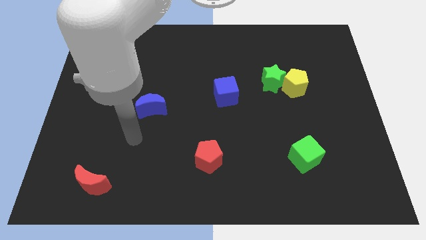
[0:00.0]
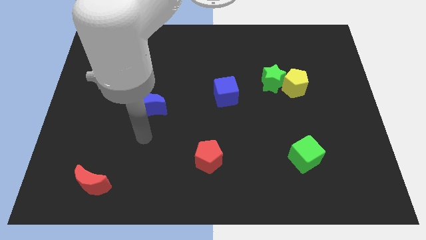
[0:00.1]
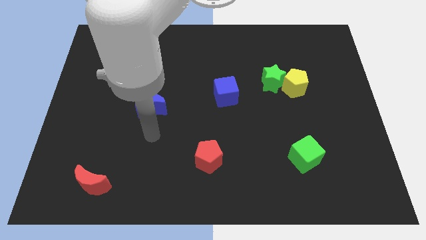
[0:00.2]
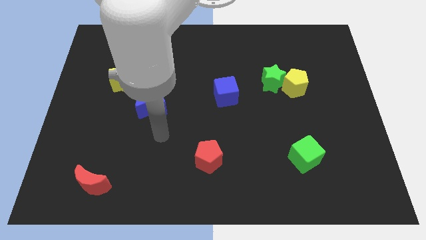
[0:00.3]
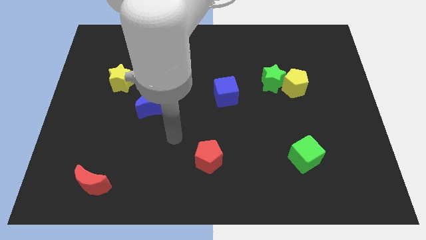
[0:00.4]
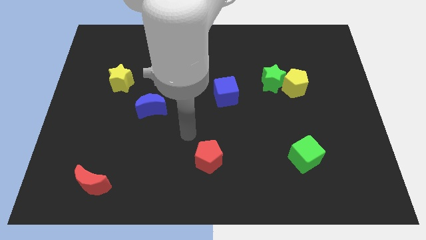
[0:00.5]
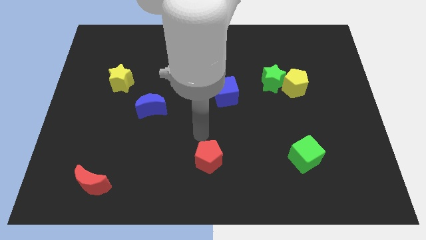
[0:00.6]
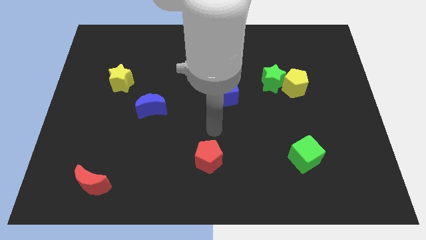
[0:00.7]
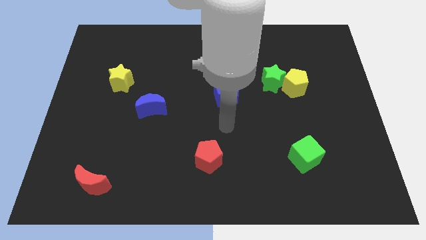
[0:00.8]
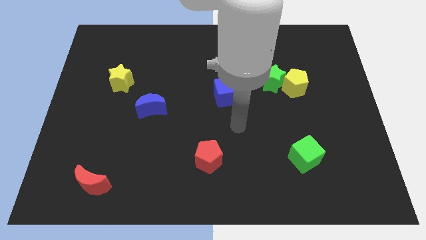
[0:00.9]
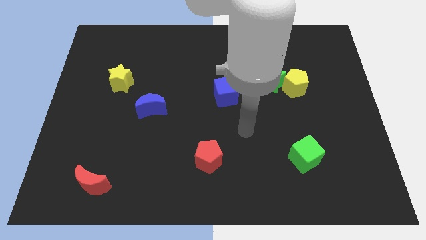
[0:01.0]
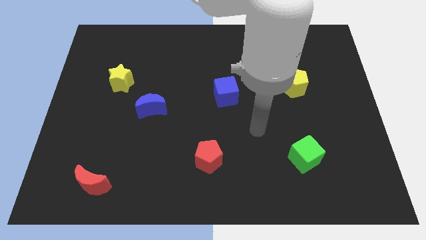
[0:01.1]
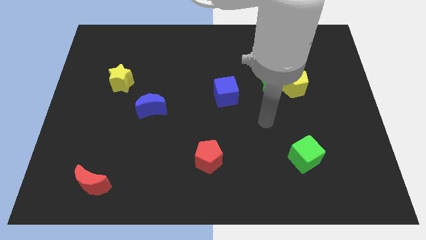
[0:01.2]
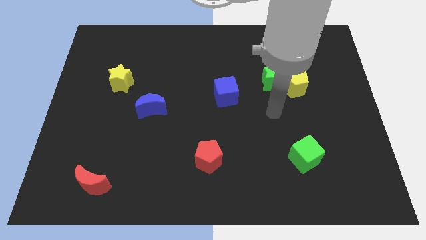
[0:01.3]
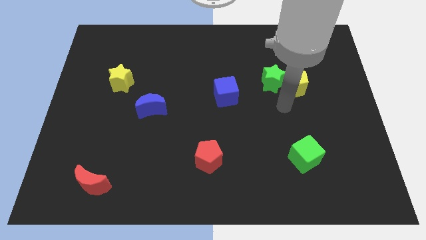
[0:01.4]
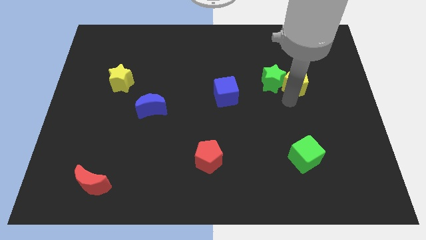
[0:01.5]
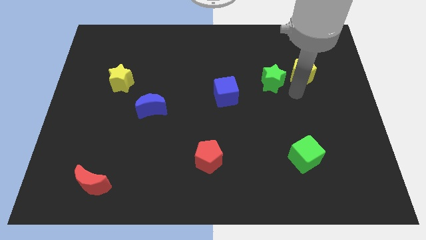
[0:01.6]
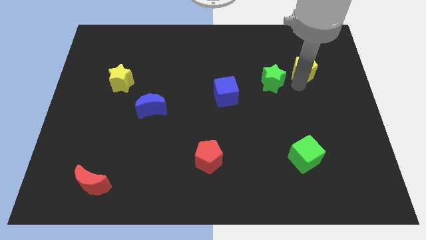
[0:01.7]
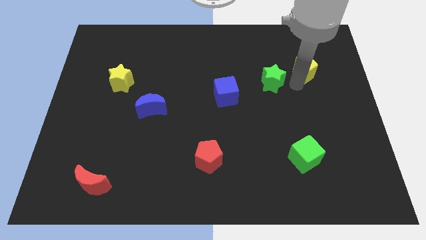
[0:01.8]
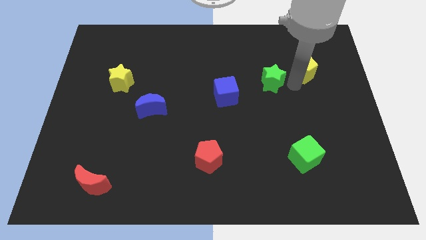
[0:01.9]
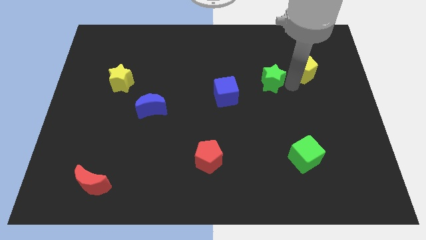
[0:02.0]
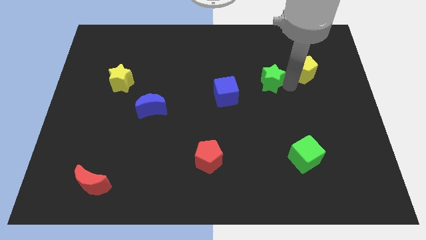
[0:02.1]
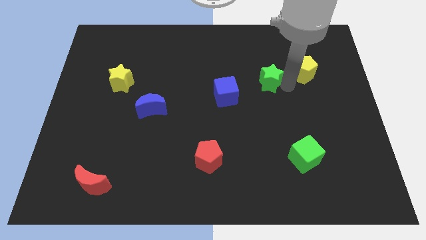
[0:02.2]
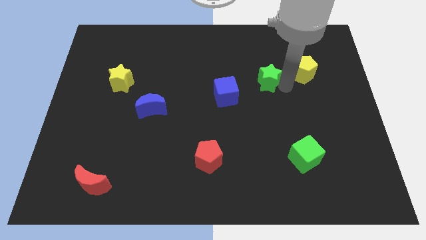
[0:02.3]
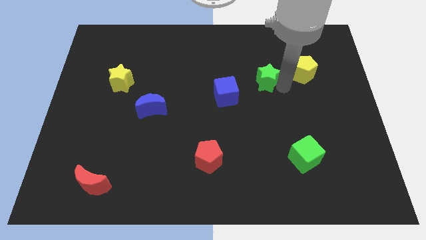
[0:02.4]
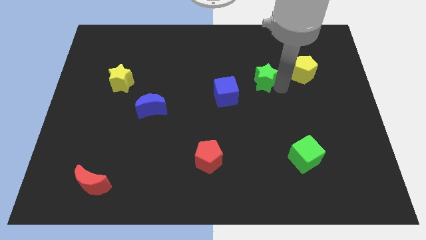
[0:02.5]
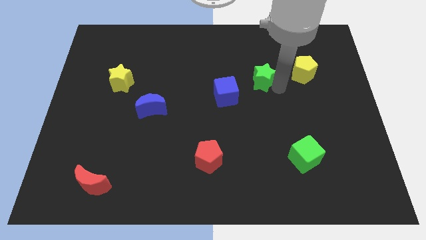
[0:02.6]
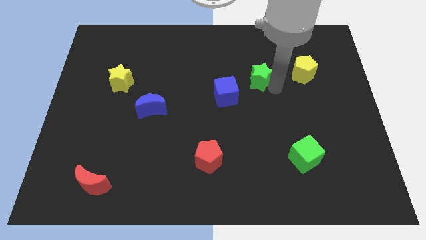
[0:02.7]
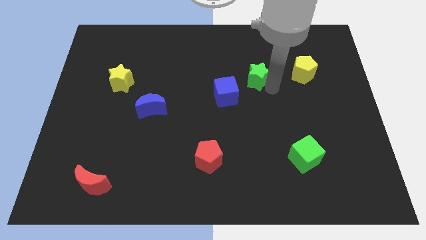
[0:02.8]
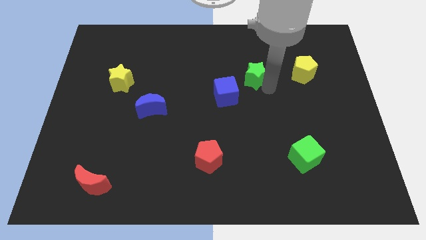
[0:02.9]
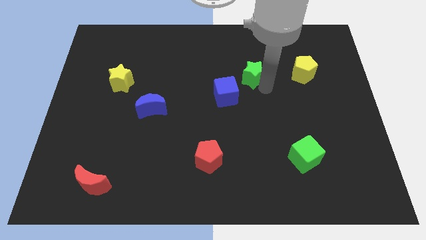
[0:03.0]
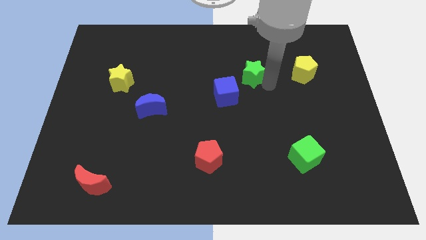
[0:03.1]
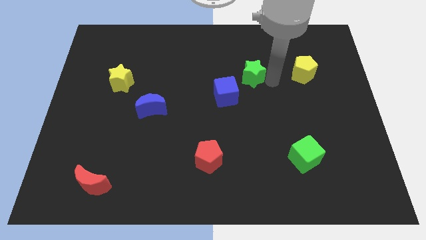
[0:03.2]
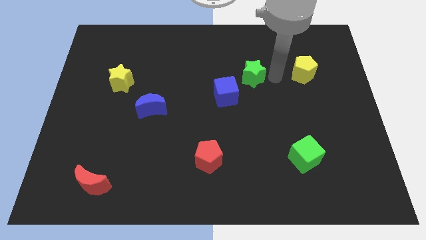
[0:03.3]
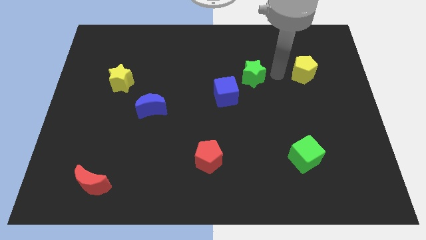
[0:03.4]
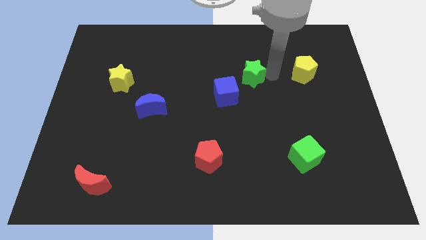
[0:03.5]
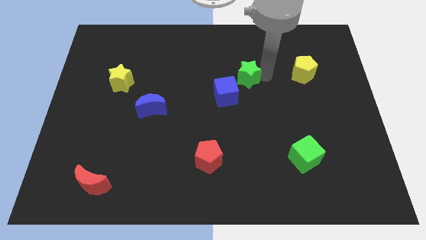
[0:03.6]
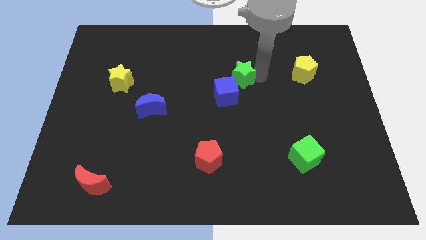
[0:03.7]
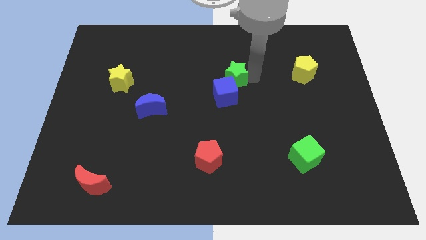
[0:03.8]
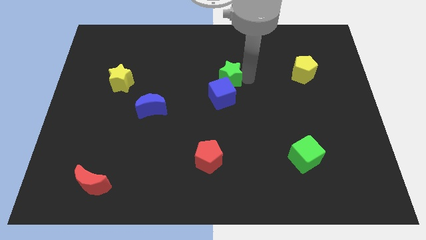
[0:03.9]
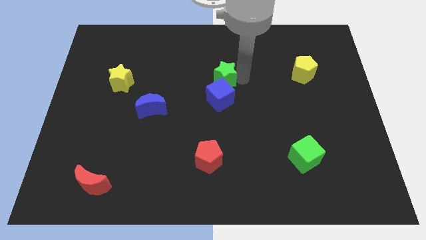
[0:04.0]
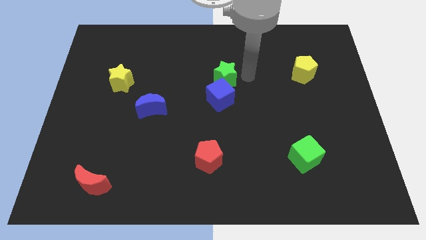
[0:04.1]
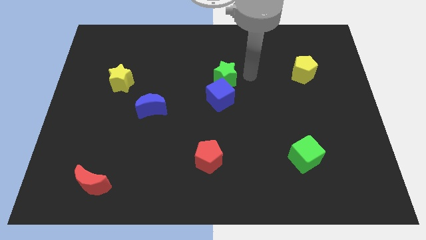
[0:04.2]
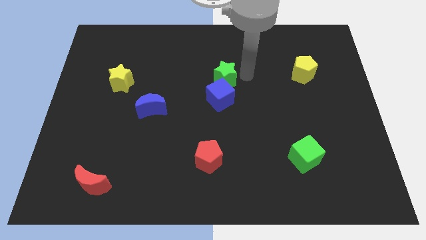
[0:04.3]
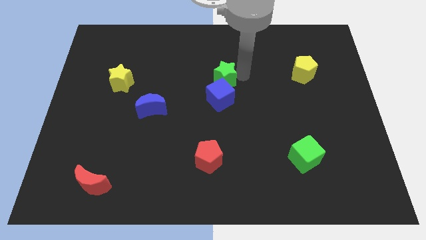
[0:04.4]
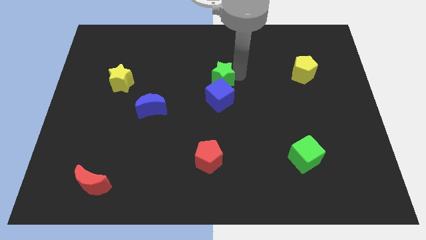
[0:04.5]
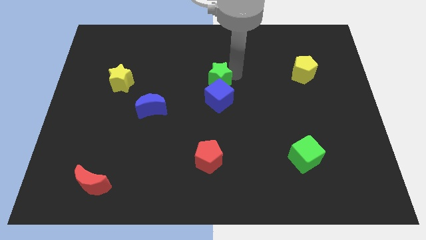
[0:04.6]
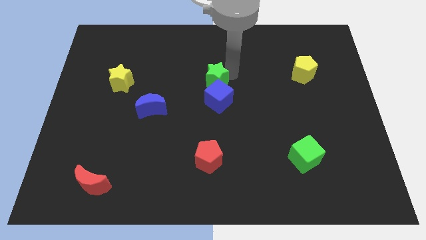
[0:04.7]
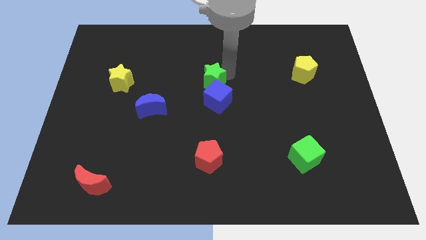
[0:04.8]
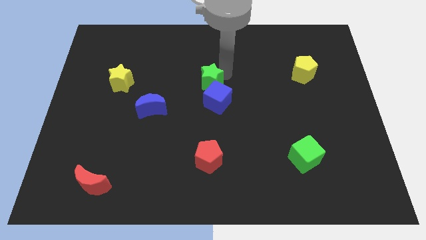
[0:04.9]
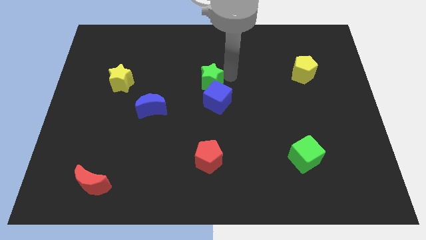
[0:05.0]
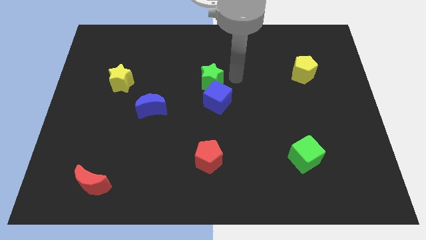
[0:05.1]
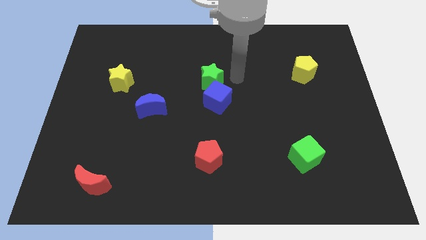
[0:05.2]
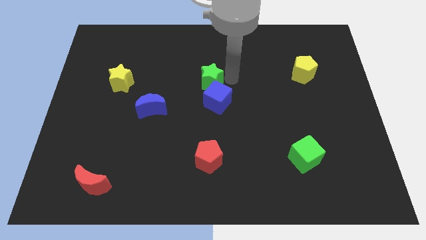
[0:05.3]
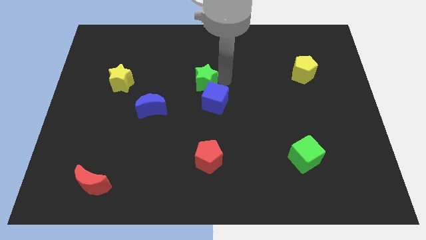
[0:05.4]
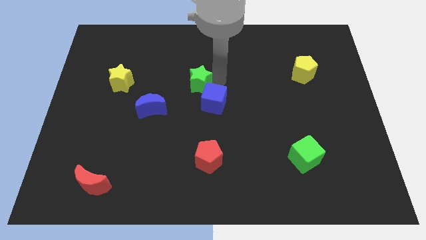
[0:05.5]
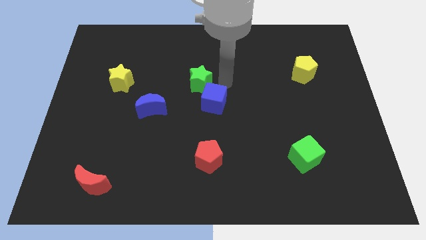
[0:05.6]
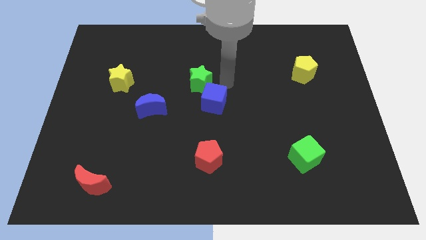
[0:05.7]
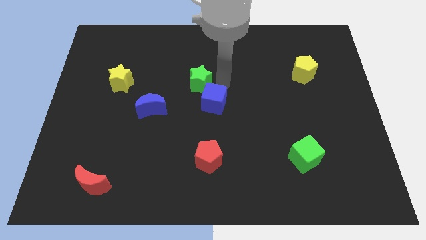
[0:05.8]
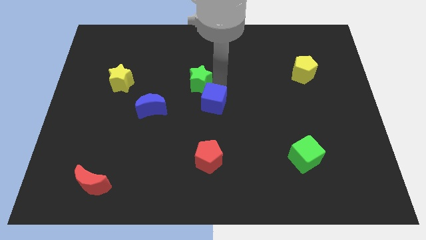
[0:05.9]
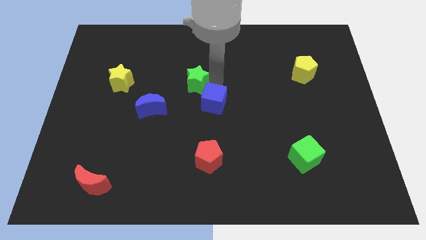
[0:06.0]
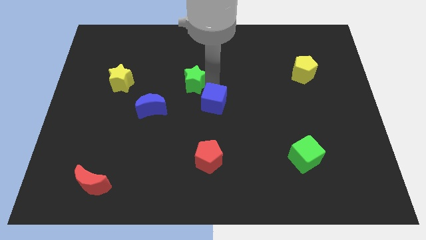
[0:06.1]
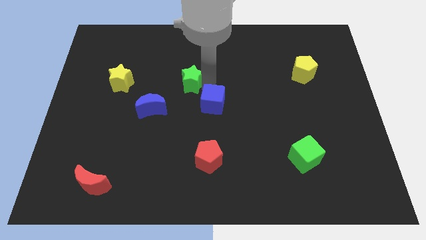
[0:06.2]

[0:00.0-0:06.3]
push the green star left

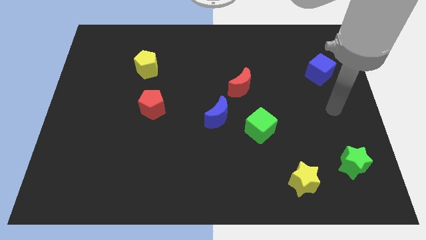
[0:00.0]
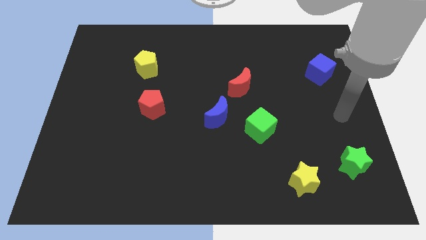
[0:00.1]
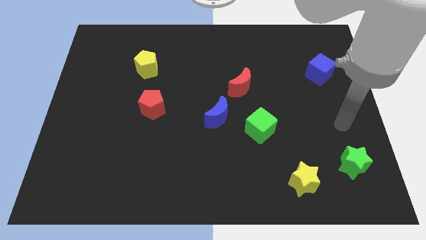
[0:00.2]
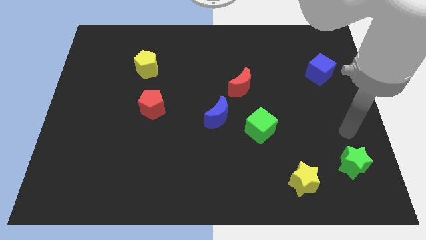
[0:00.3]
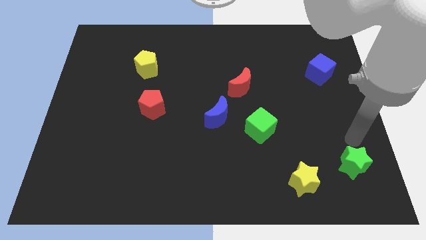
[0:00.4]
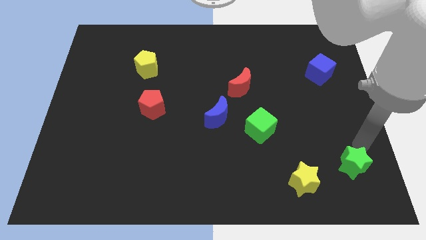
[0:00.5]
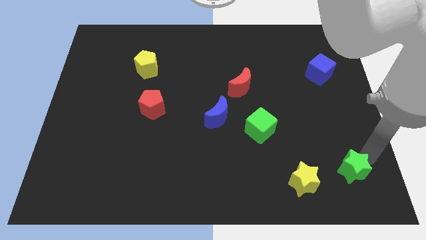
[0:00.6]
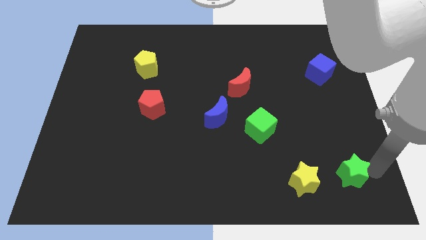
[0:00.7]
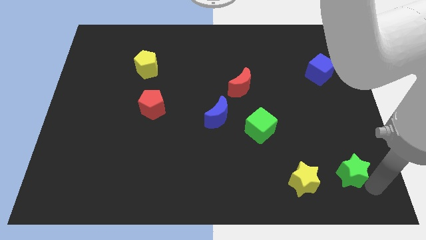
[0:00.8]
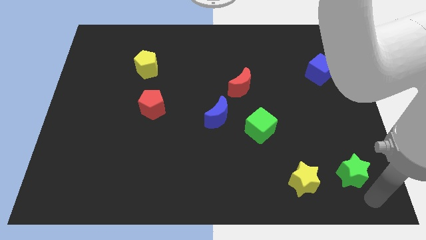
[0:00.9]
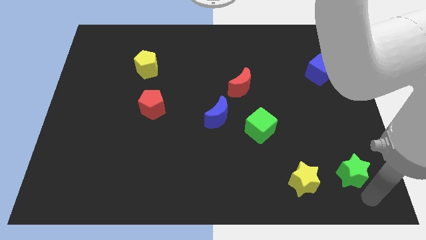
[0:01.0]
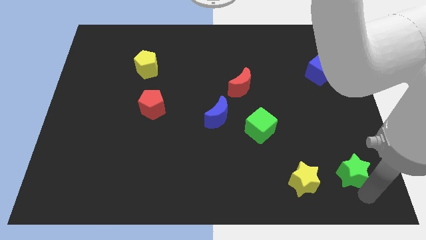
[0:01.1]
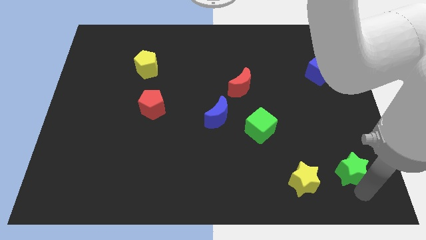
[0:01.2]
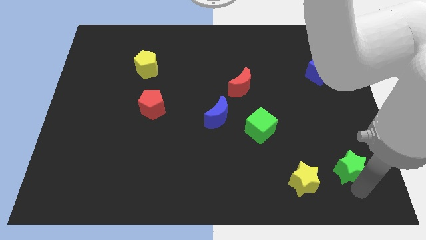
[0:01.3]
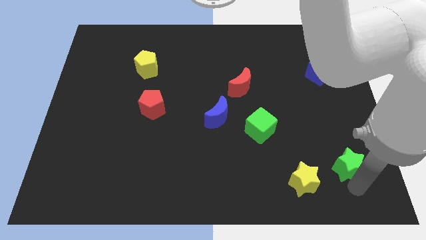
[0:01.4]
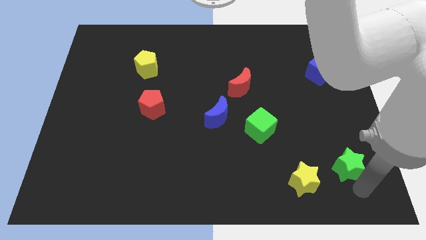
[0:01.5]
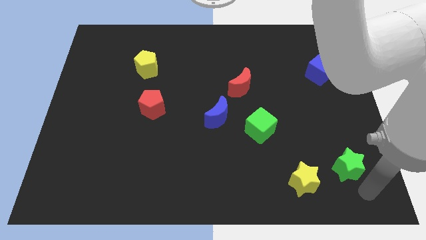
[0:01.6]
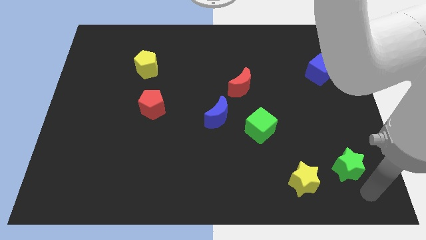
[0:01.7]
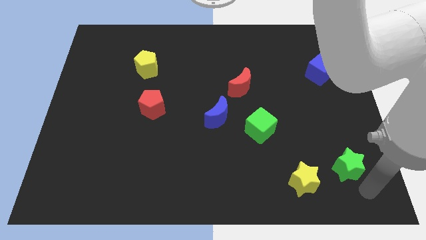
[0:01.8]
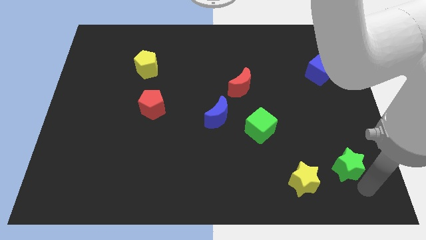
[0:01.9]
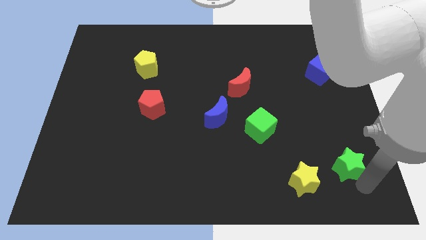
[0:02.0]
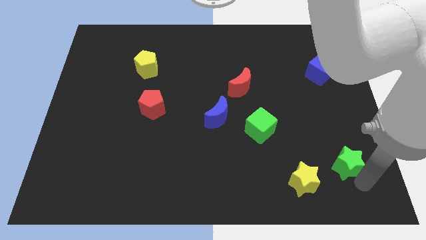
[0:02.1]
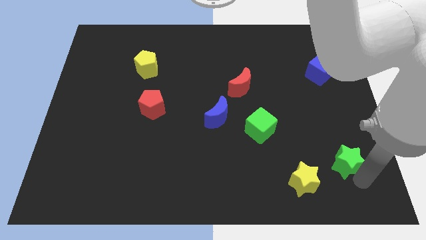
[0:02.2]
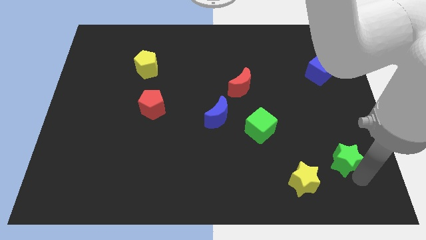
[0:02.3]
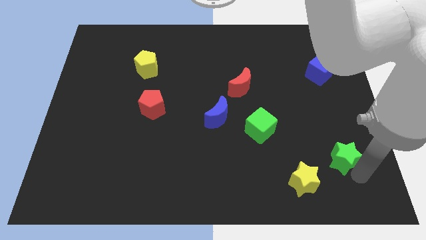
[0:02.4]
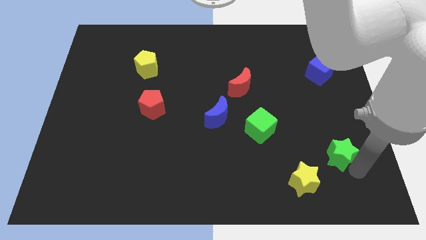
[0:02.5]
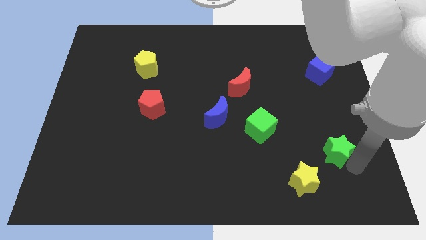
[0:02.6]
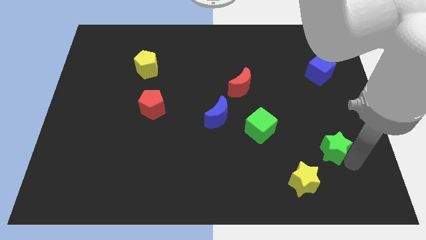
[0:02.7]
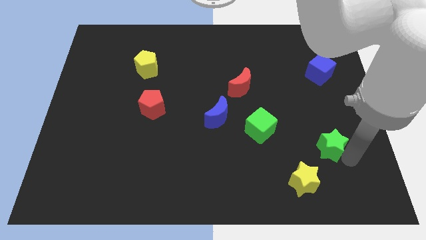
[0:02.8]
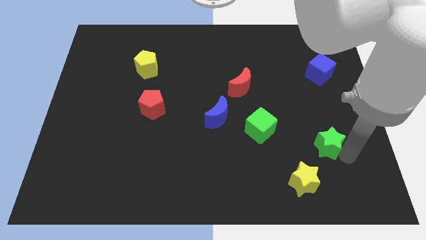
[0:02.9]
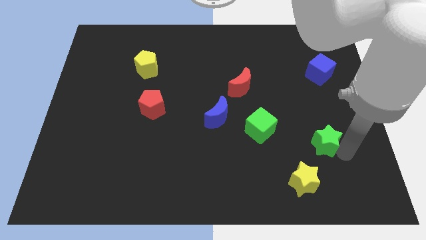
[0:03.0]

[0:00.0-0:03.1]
push the green star somewhat up and then left
